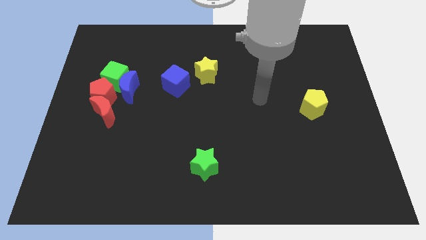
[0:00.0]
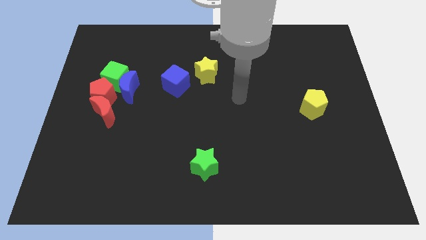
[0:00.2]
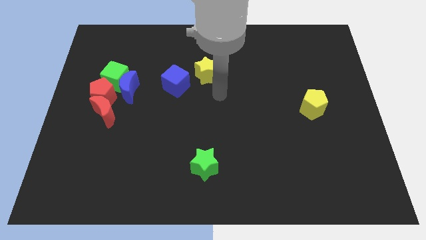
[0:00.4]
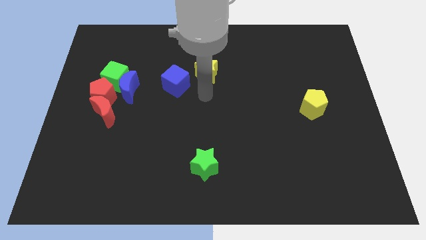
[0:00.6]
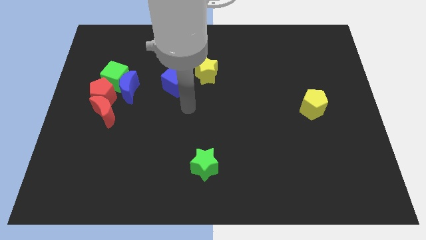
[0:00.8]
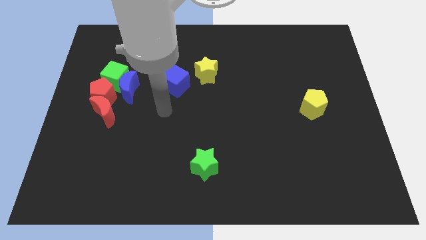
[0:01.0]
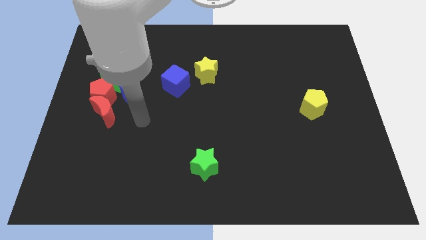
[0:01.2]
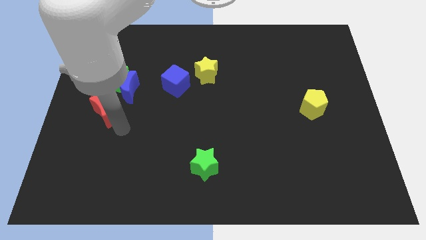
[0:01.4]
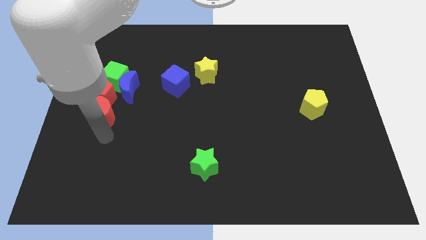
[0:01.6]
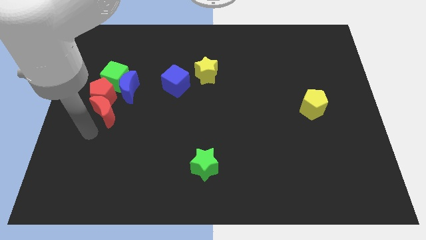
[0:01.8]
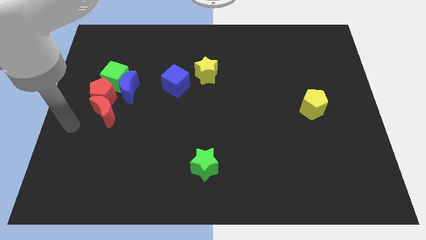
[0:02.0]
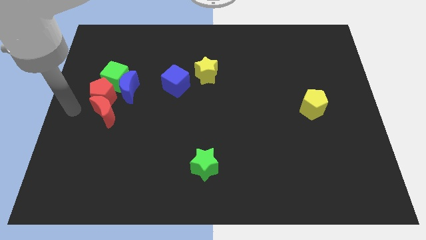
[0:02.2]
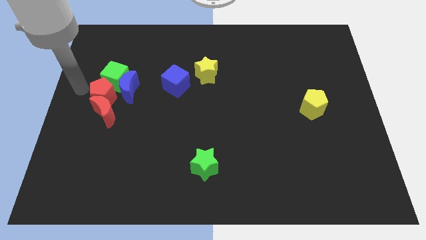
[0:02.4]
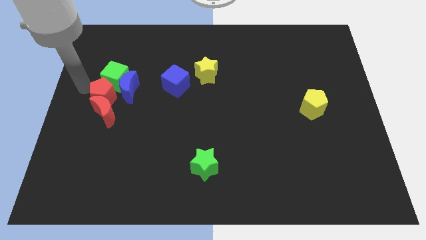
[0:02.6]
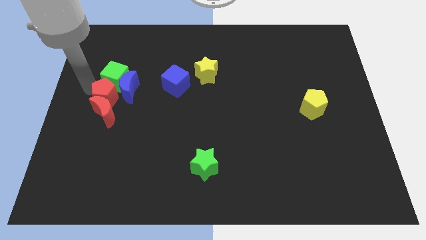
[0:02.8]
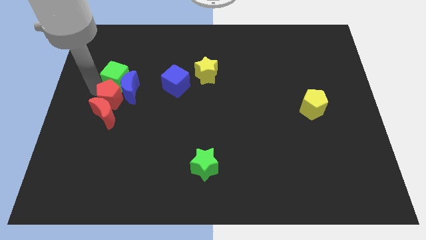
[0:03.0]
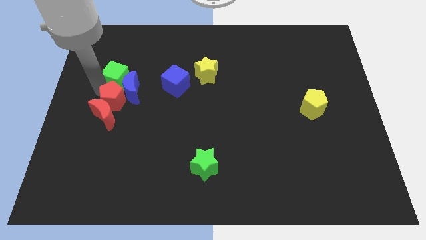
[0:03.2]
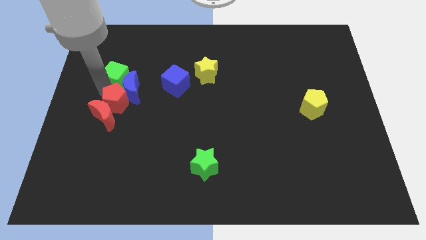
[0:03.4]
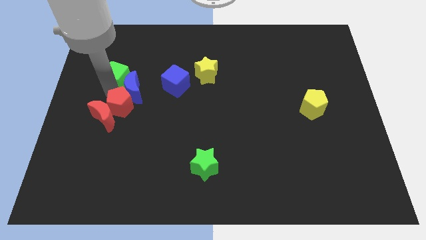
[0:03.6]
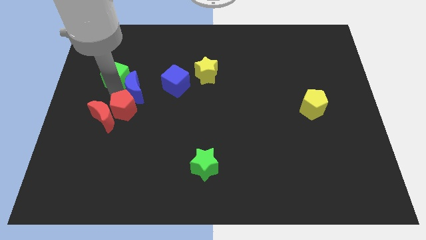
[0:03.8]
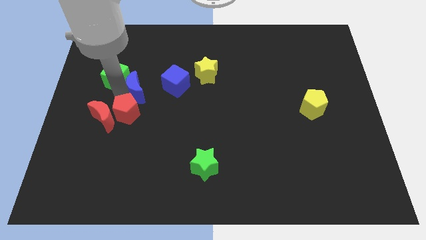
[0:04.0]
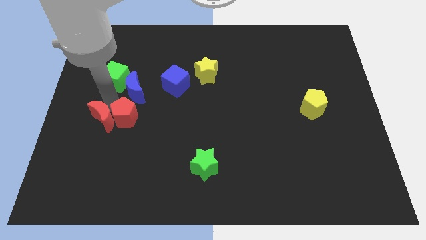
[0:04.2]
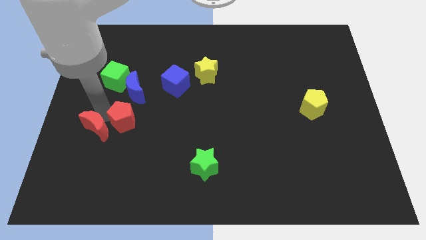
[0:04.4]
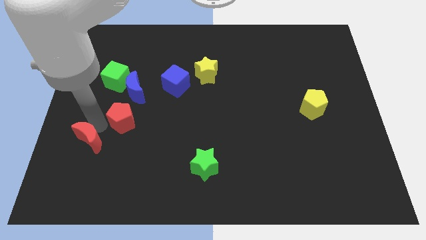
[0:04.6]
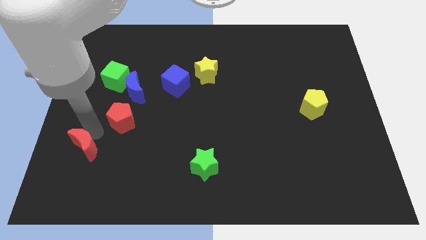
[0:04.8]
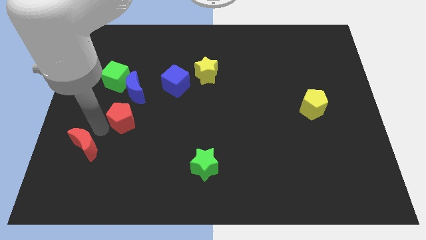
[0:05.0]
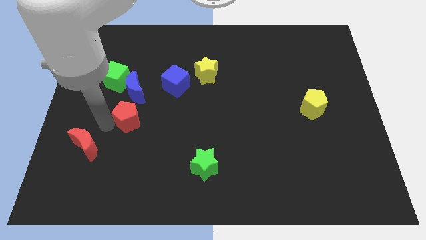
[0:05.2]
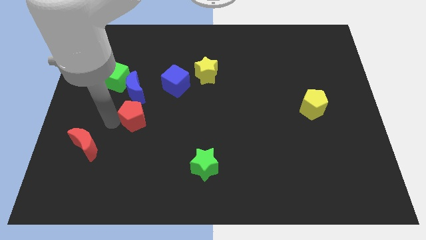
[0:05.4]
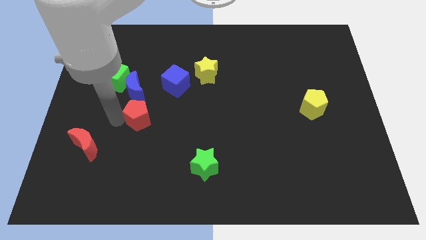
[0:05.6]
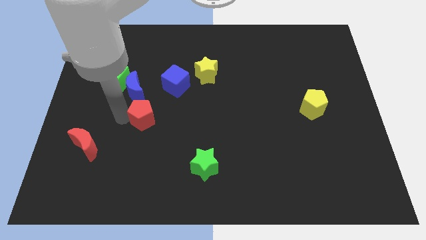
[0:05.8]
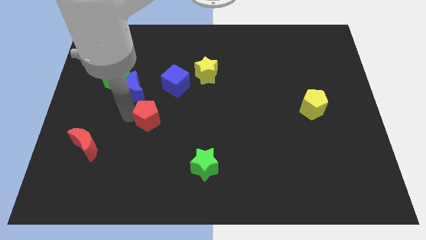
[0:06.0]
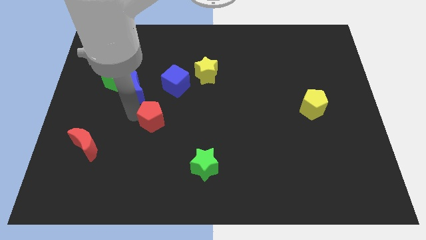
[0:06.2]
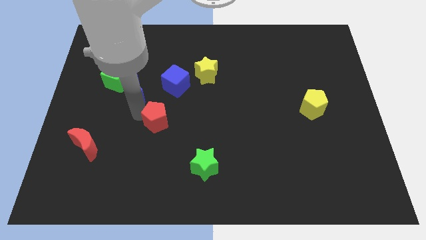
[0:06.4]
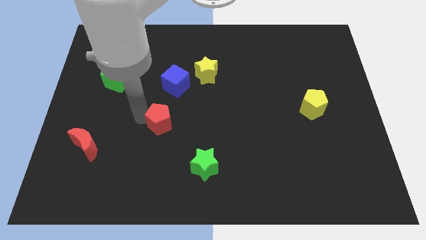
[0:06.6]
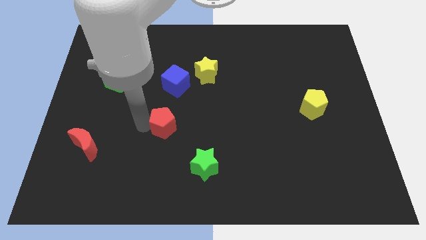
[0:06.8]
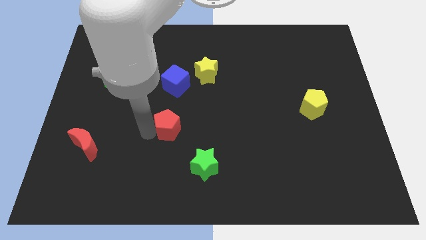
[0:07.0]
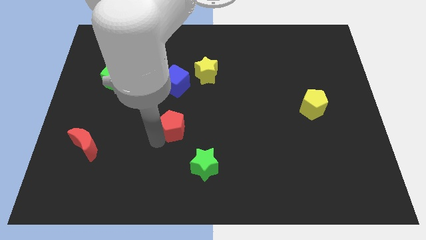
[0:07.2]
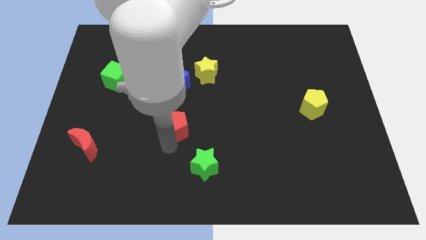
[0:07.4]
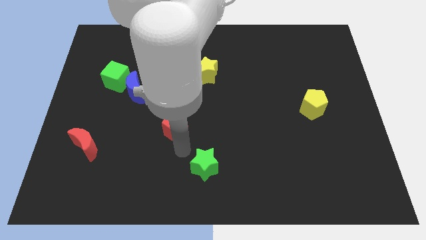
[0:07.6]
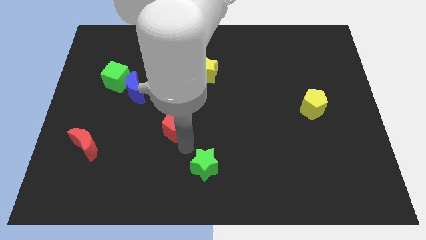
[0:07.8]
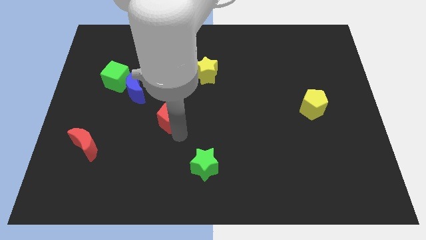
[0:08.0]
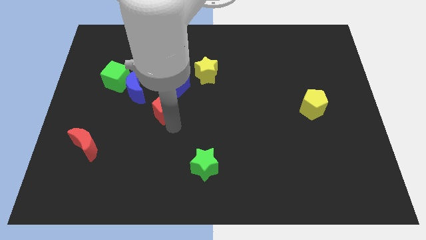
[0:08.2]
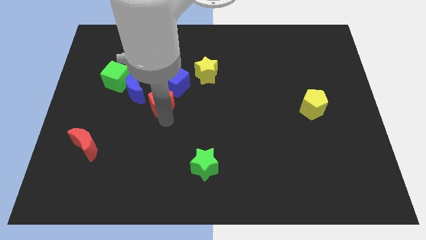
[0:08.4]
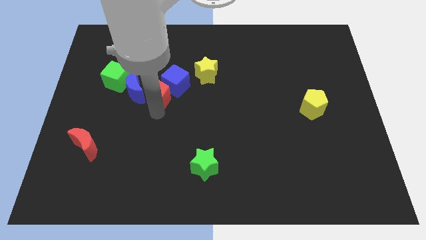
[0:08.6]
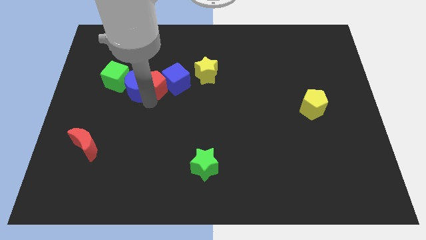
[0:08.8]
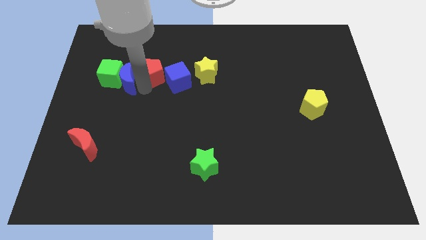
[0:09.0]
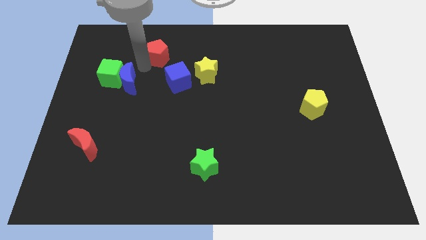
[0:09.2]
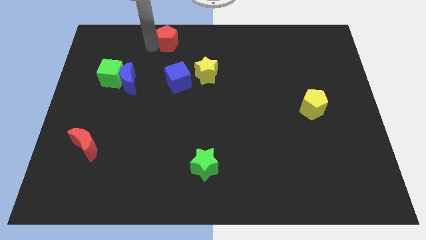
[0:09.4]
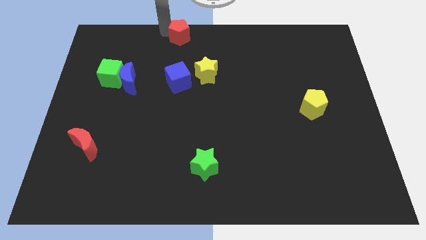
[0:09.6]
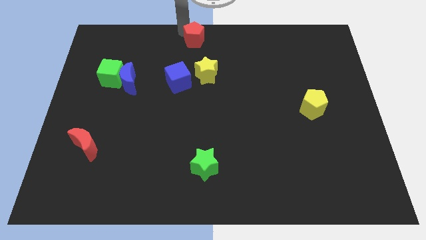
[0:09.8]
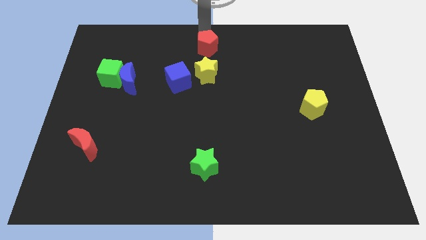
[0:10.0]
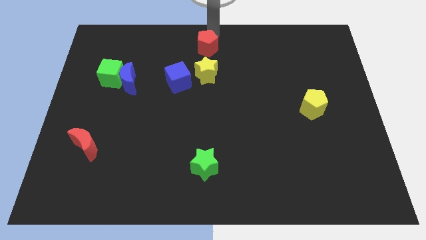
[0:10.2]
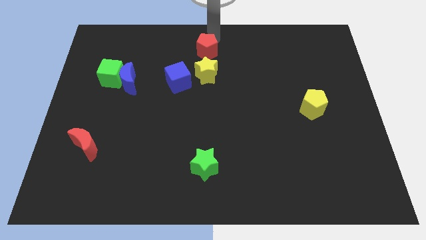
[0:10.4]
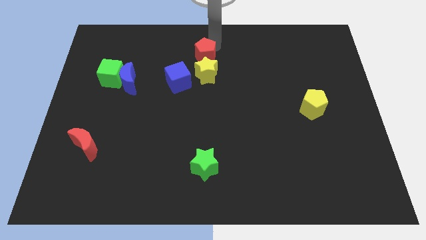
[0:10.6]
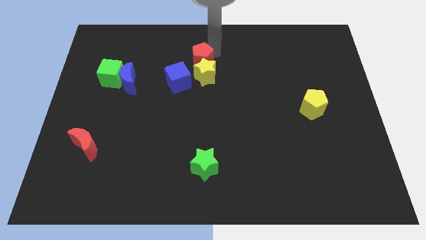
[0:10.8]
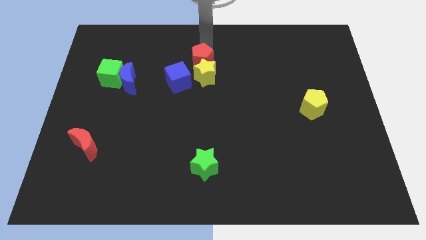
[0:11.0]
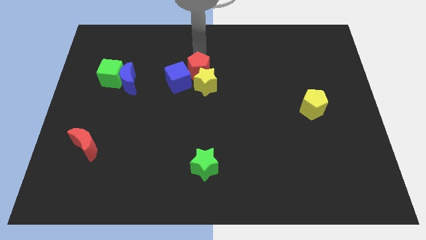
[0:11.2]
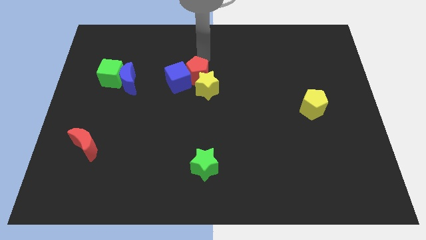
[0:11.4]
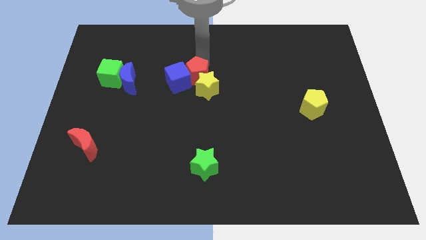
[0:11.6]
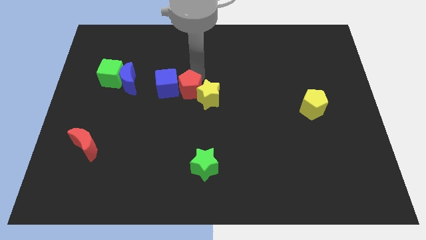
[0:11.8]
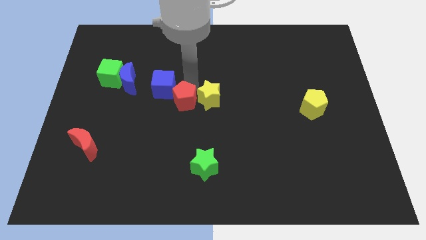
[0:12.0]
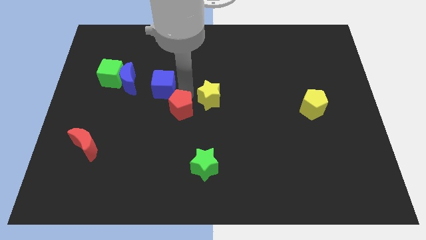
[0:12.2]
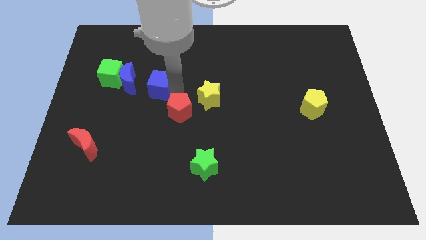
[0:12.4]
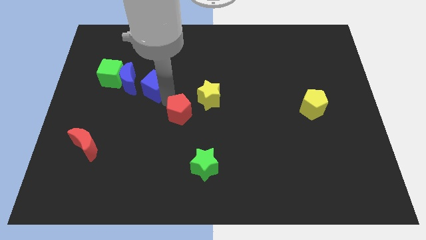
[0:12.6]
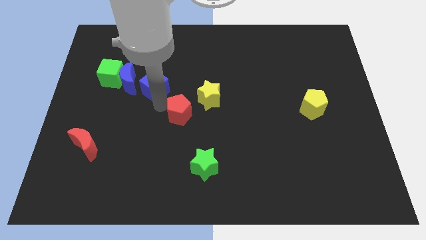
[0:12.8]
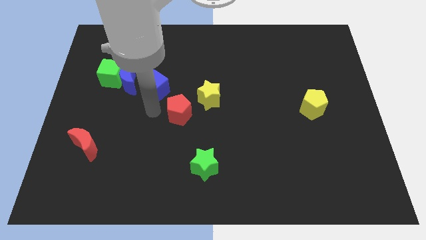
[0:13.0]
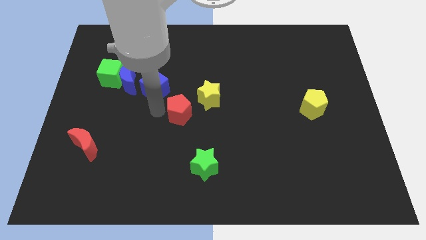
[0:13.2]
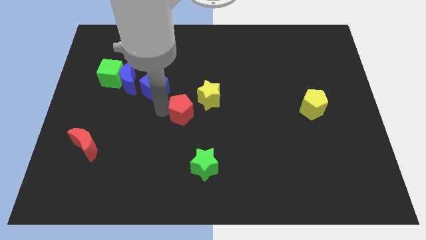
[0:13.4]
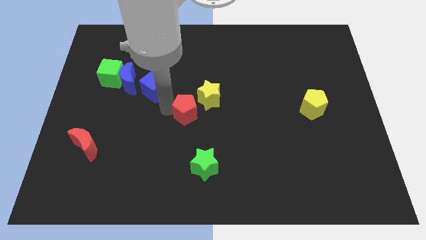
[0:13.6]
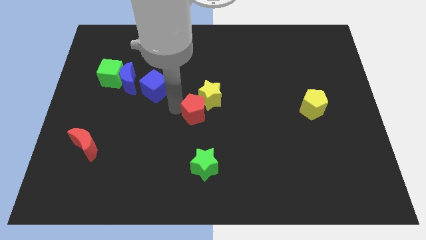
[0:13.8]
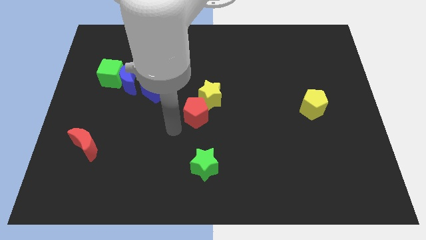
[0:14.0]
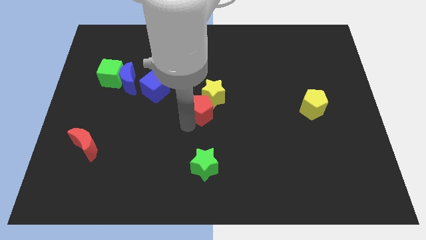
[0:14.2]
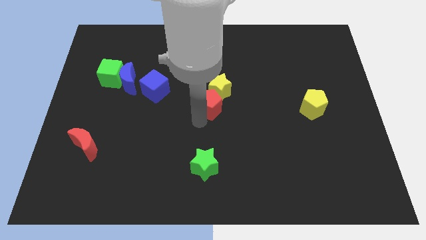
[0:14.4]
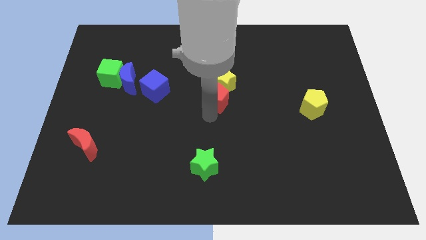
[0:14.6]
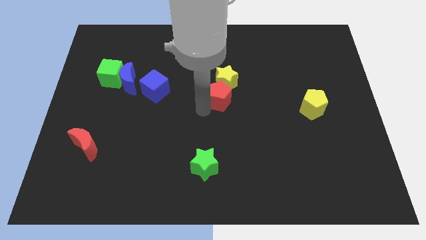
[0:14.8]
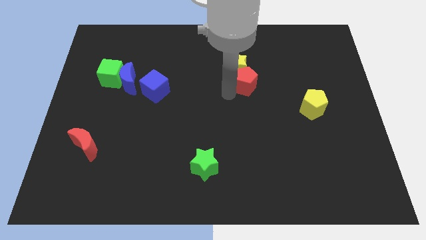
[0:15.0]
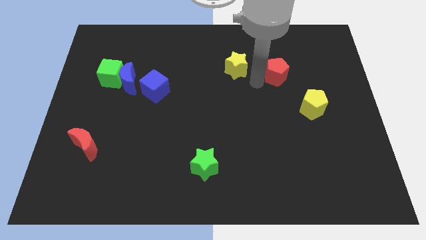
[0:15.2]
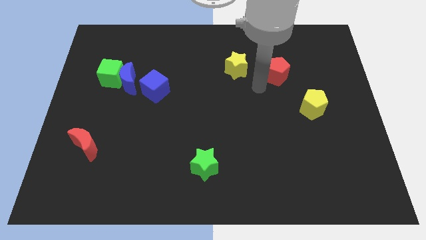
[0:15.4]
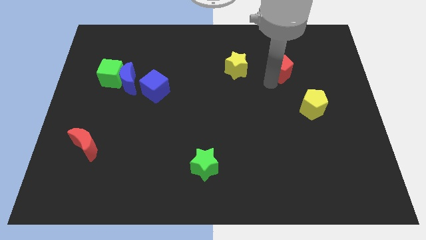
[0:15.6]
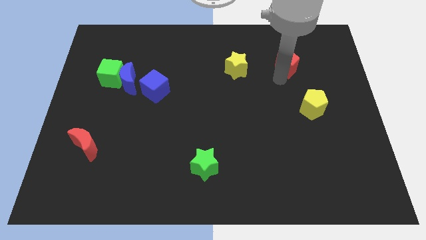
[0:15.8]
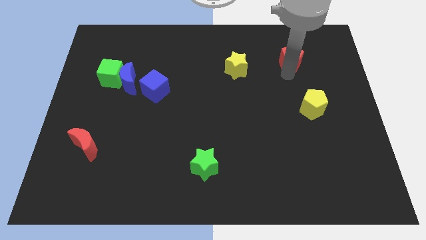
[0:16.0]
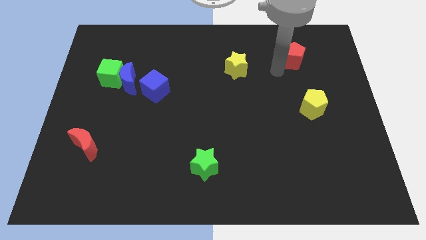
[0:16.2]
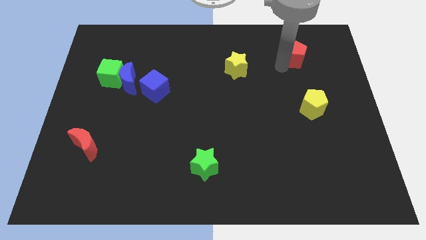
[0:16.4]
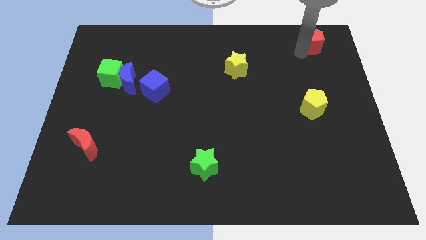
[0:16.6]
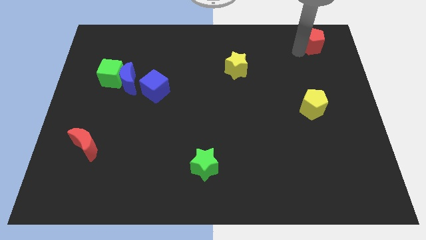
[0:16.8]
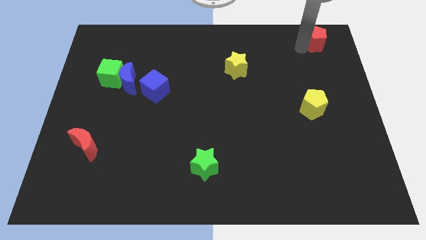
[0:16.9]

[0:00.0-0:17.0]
slide the red pentagon to the top right corner

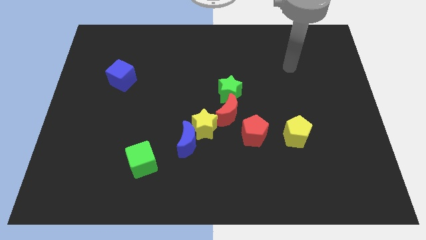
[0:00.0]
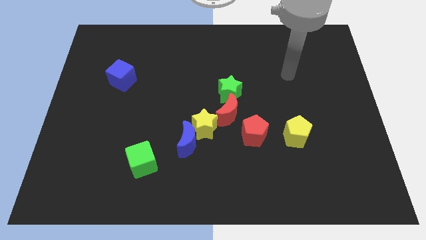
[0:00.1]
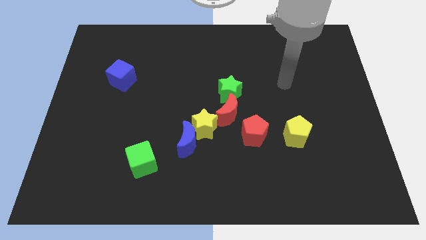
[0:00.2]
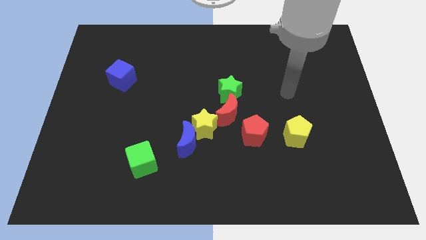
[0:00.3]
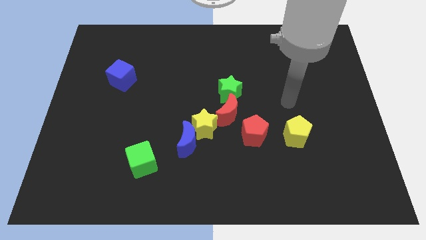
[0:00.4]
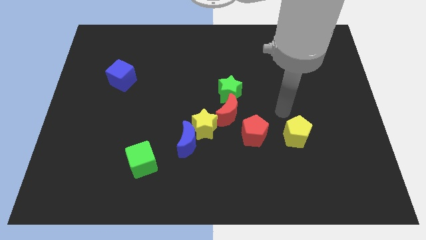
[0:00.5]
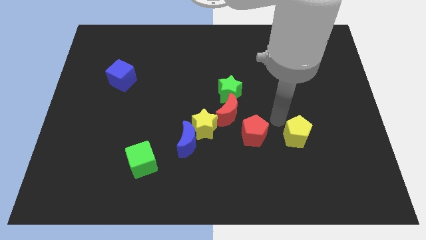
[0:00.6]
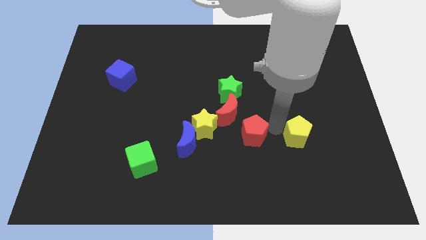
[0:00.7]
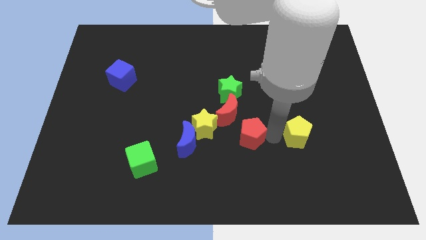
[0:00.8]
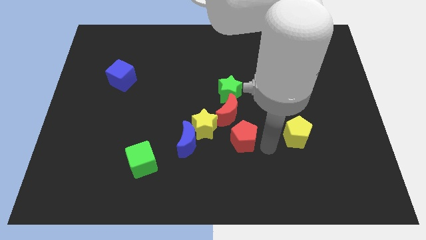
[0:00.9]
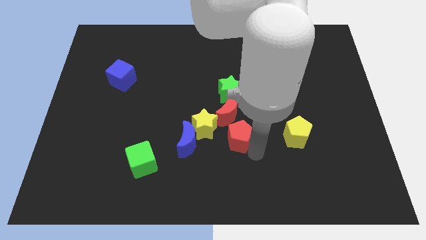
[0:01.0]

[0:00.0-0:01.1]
push the red pentagon to the center of the board
